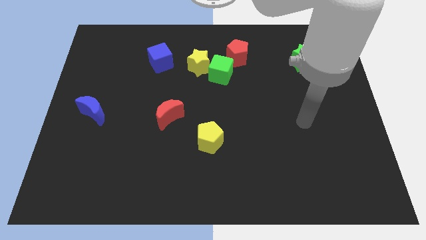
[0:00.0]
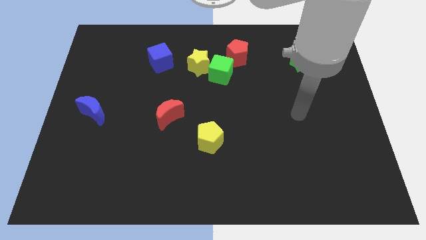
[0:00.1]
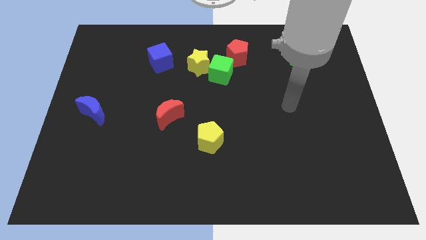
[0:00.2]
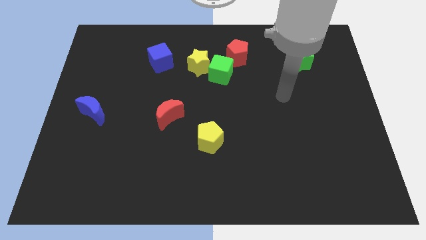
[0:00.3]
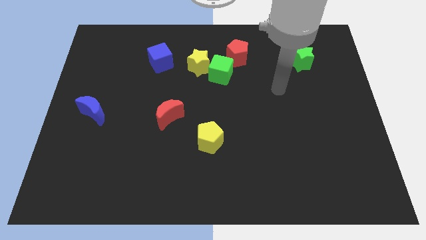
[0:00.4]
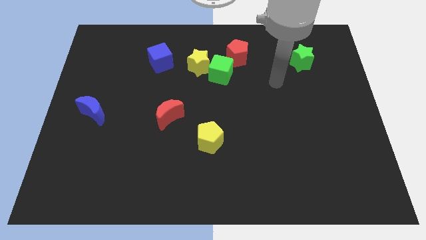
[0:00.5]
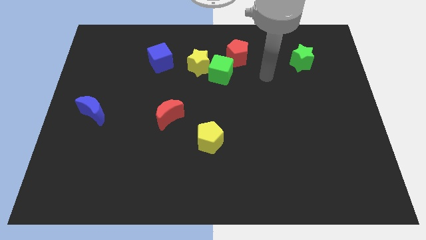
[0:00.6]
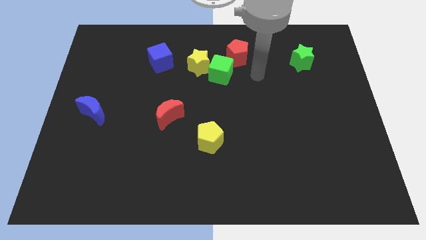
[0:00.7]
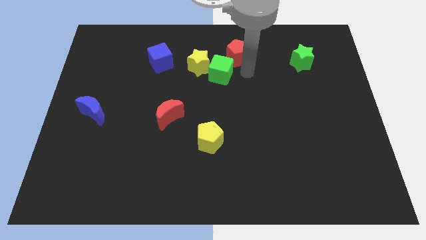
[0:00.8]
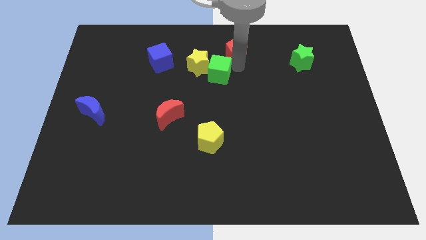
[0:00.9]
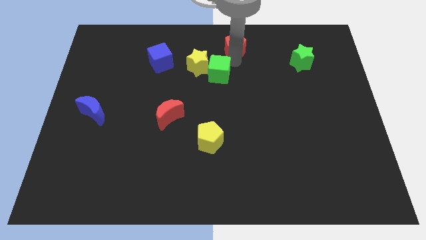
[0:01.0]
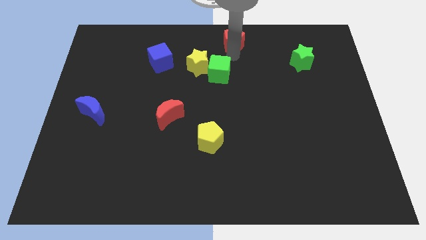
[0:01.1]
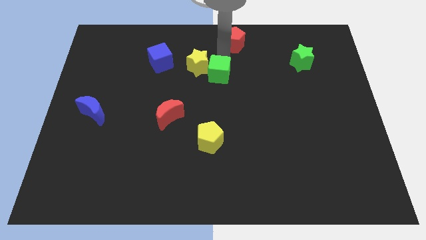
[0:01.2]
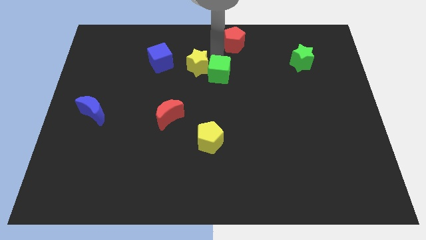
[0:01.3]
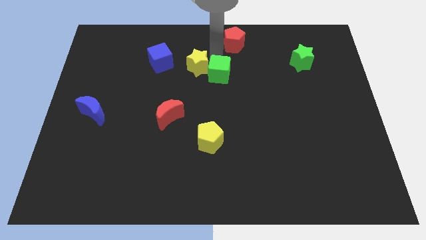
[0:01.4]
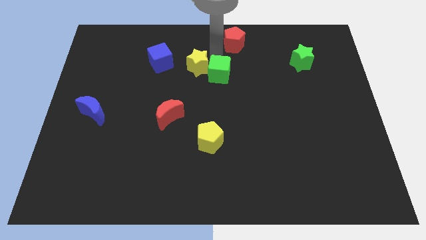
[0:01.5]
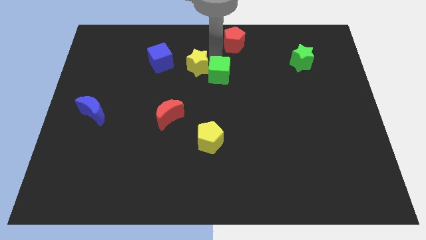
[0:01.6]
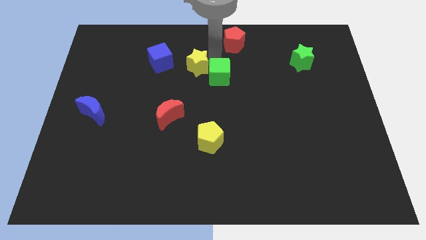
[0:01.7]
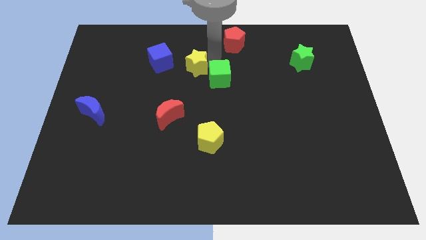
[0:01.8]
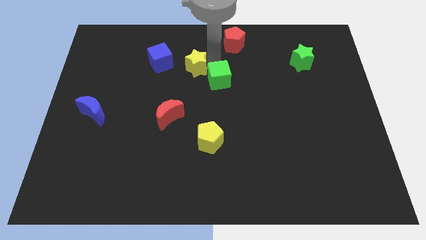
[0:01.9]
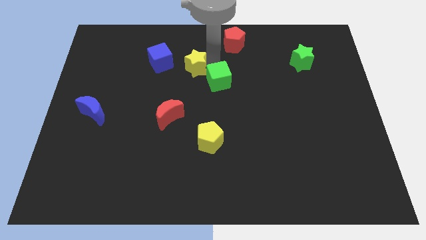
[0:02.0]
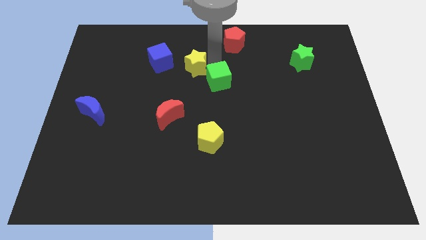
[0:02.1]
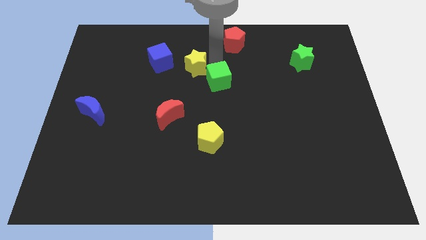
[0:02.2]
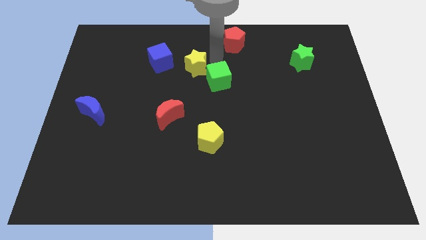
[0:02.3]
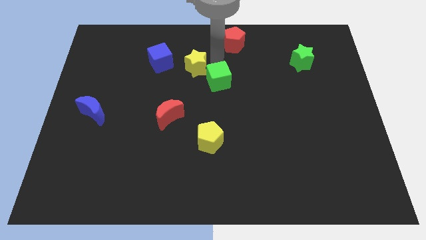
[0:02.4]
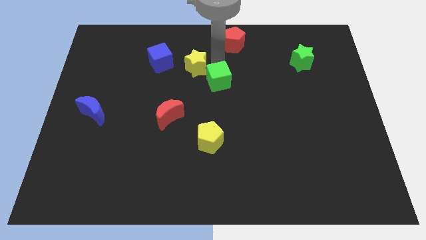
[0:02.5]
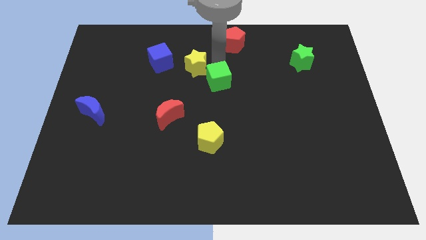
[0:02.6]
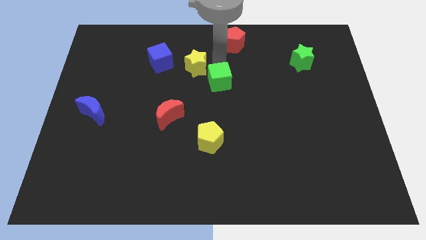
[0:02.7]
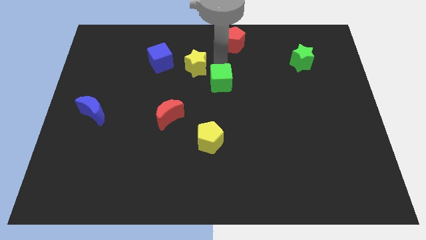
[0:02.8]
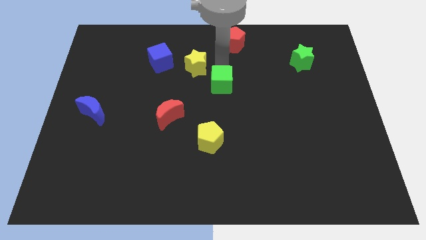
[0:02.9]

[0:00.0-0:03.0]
pull the green cube apart from the yellow star and red pentagon

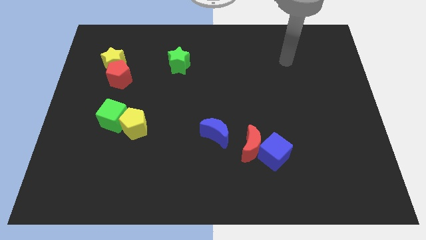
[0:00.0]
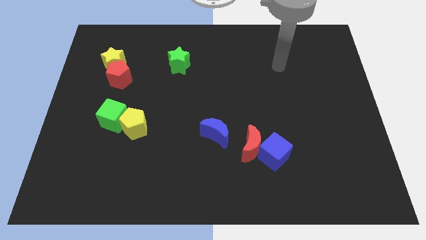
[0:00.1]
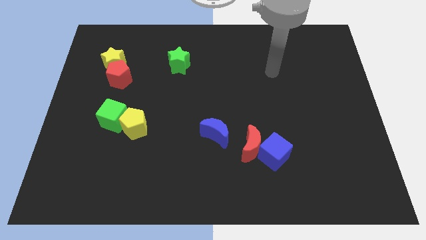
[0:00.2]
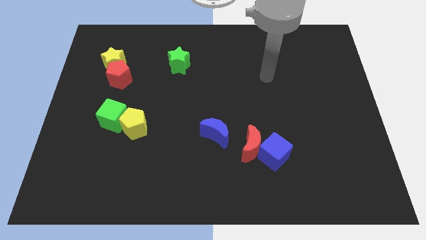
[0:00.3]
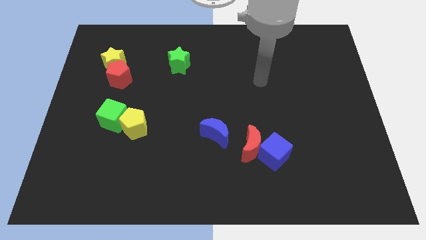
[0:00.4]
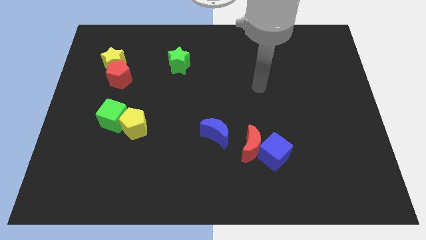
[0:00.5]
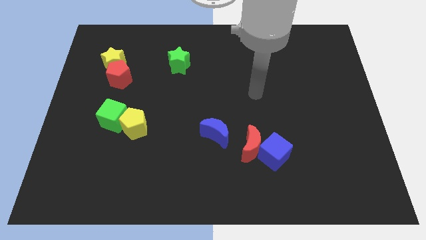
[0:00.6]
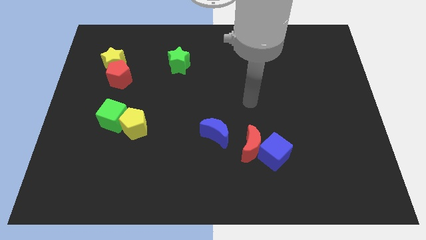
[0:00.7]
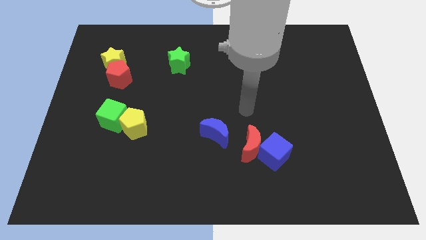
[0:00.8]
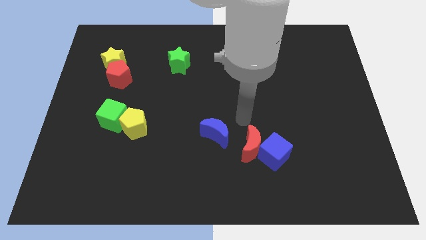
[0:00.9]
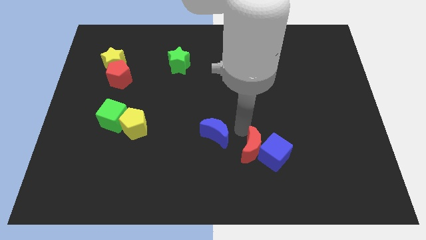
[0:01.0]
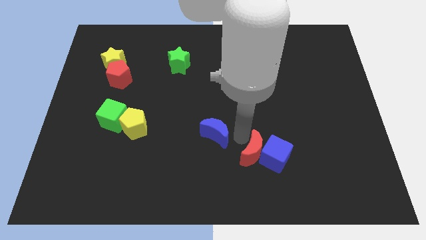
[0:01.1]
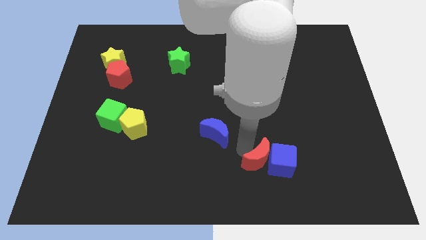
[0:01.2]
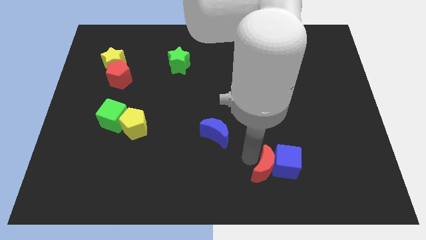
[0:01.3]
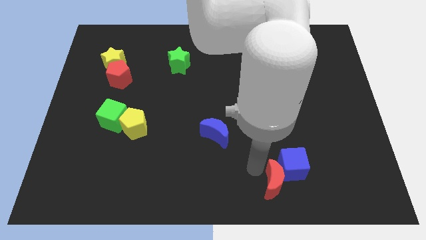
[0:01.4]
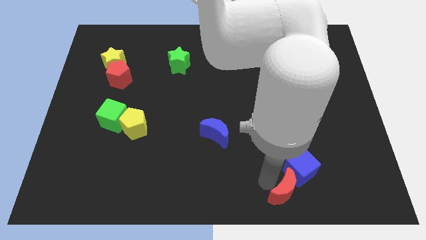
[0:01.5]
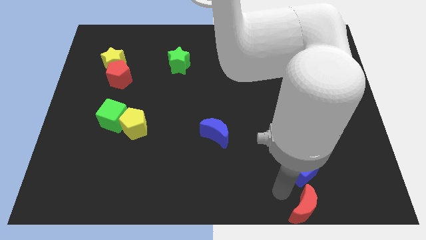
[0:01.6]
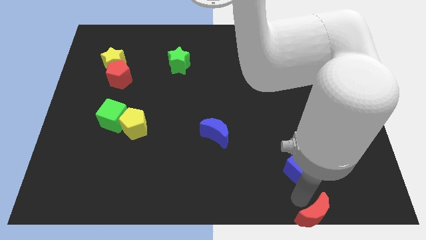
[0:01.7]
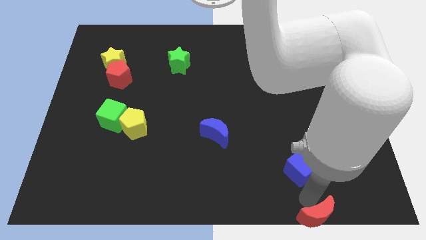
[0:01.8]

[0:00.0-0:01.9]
move the blue cube away from the red moon

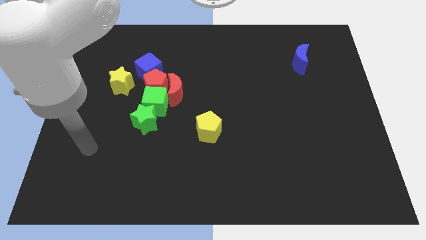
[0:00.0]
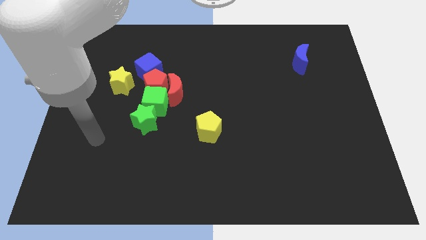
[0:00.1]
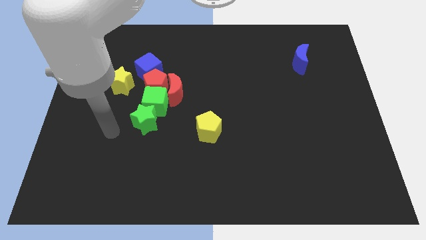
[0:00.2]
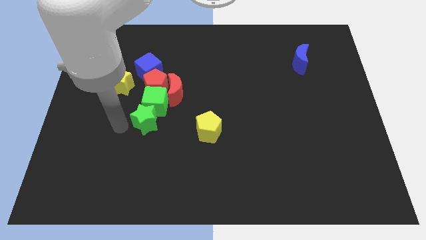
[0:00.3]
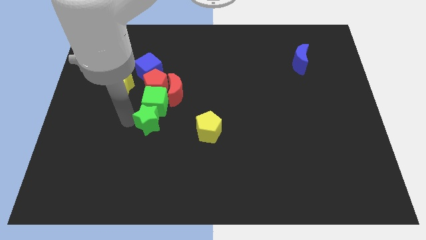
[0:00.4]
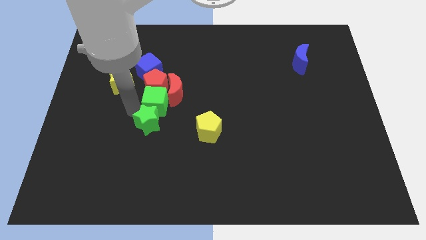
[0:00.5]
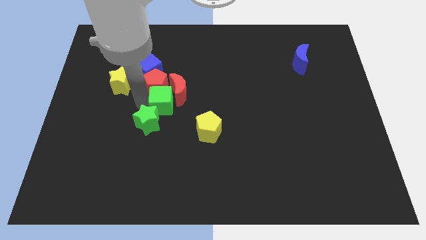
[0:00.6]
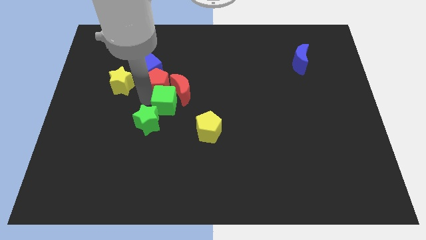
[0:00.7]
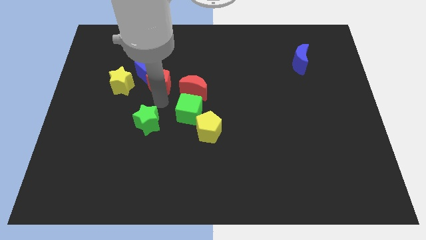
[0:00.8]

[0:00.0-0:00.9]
pull the green star apart from the green cube

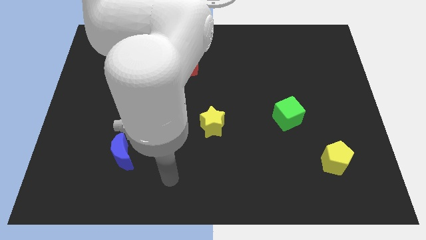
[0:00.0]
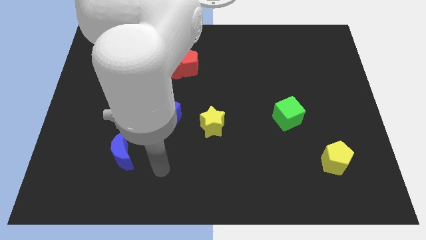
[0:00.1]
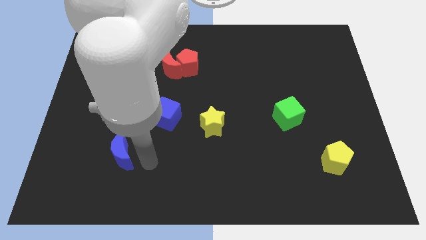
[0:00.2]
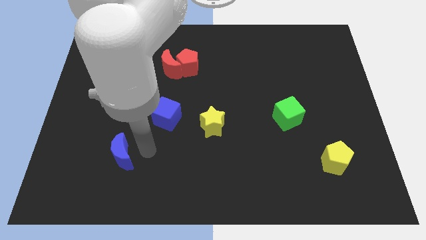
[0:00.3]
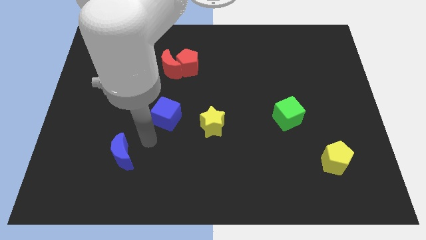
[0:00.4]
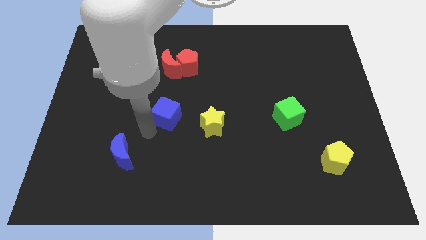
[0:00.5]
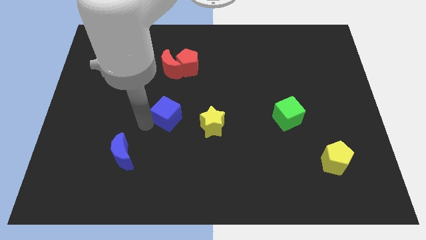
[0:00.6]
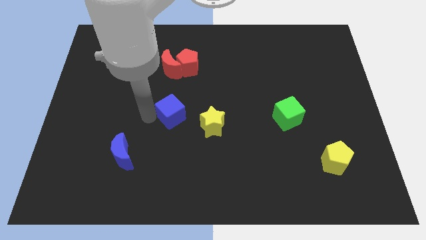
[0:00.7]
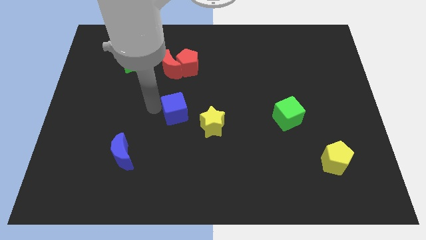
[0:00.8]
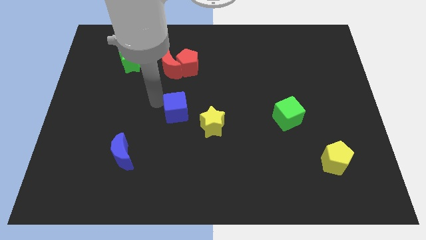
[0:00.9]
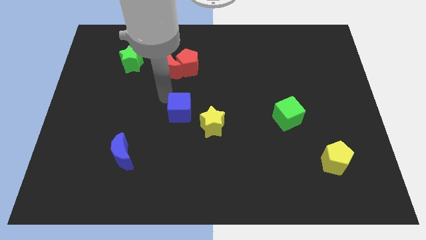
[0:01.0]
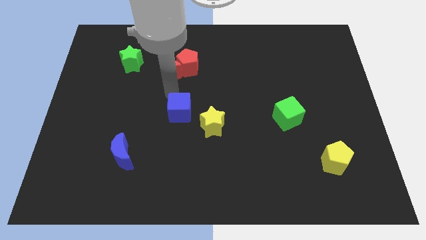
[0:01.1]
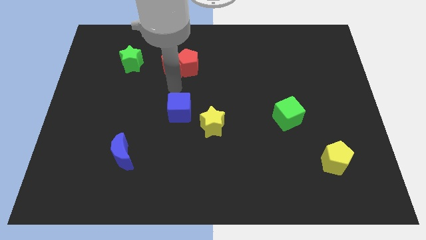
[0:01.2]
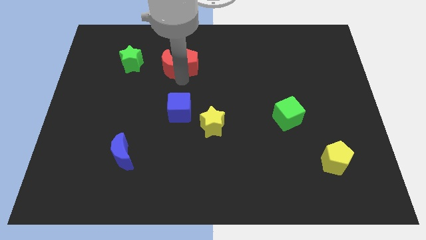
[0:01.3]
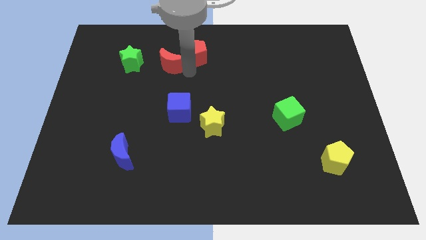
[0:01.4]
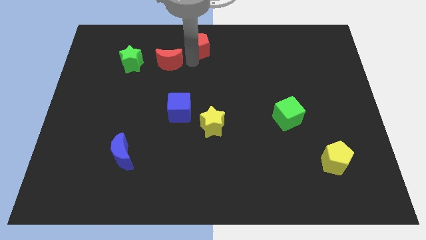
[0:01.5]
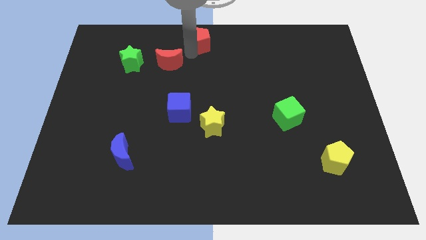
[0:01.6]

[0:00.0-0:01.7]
pull the red moon apart from the red pentagon

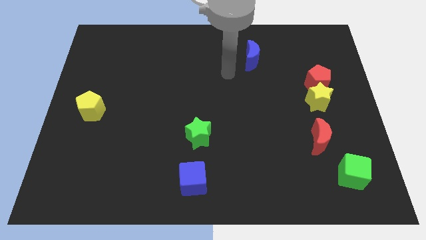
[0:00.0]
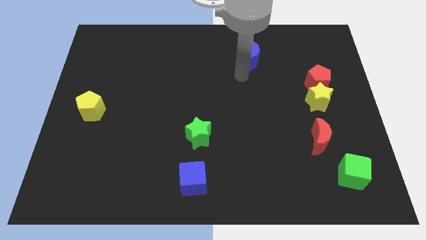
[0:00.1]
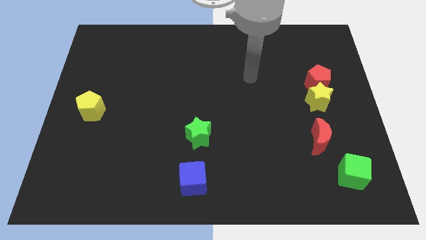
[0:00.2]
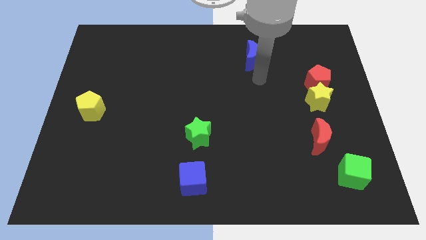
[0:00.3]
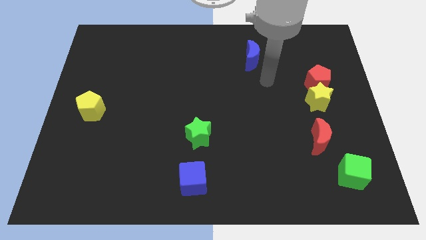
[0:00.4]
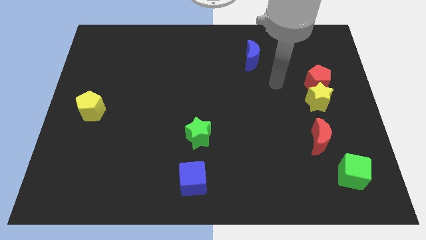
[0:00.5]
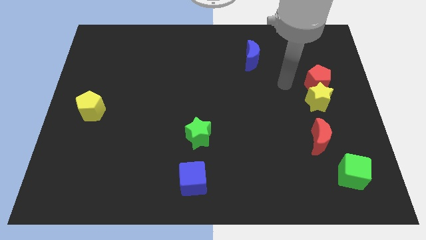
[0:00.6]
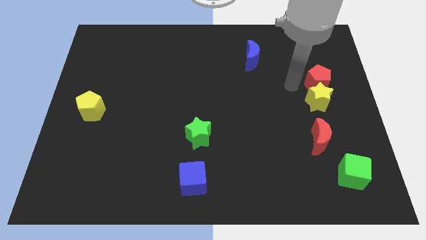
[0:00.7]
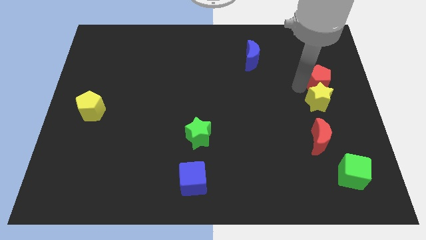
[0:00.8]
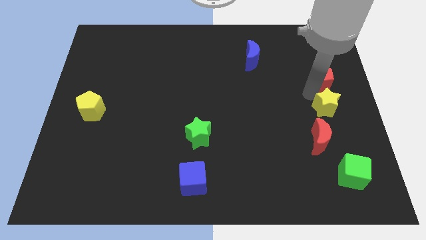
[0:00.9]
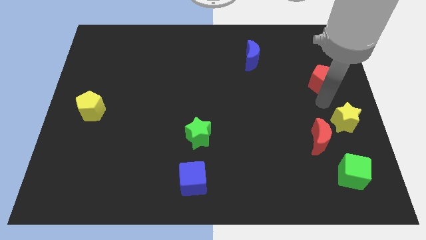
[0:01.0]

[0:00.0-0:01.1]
separate the red pentagon from the yellow star

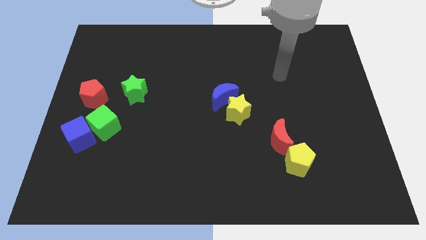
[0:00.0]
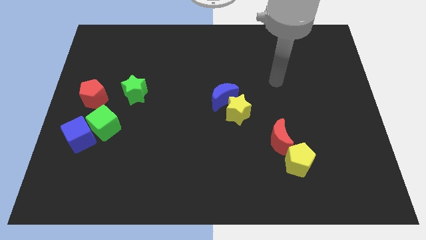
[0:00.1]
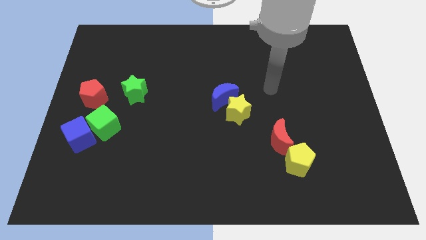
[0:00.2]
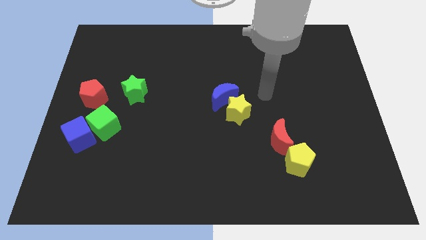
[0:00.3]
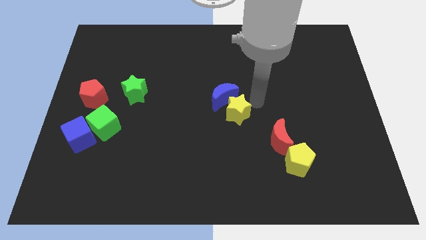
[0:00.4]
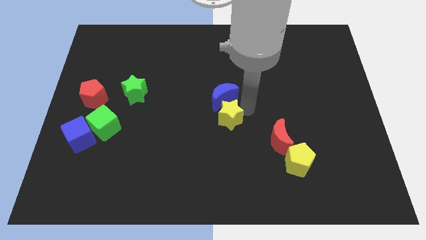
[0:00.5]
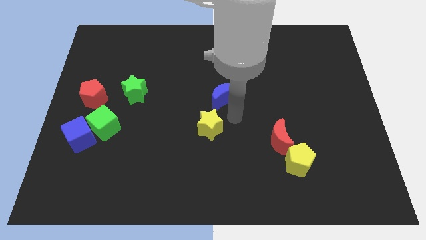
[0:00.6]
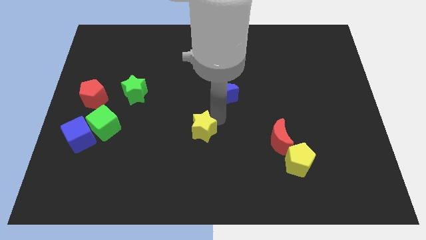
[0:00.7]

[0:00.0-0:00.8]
move the blue moon away from the yellow star
